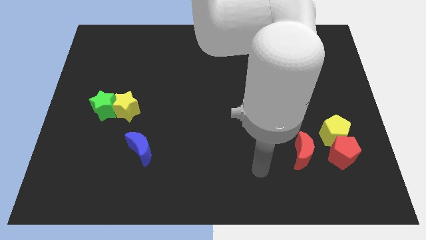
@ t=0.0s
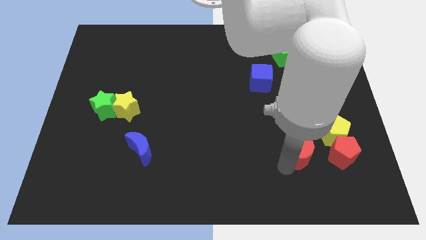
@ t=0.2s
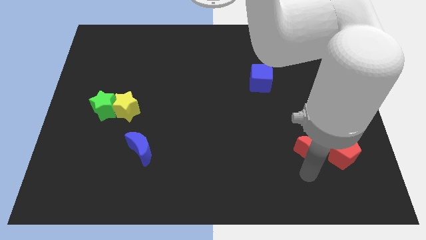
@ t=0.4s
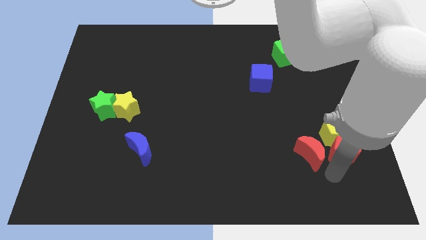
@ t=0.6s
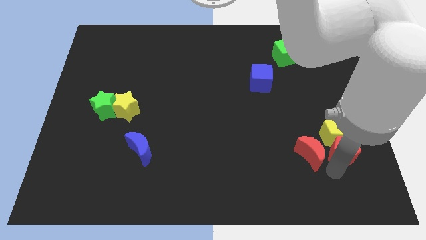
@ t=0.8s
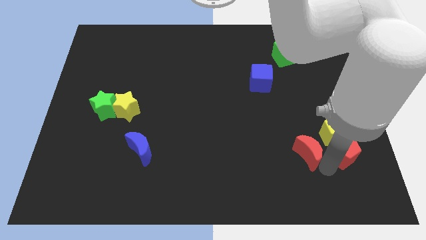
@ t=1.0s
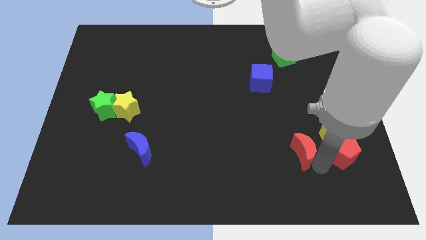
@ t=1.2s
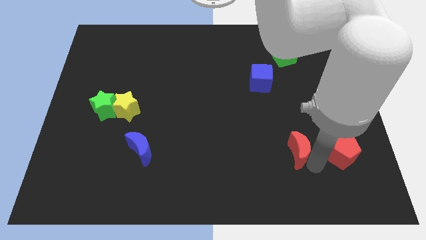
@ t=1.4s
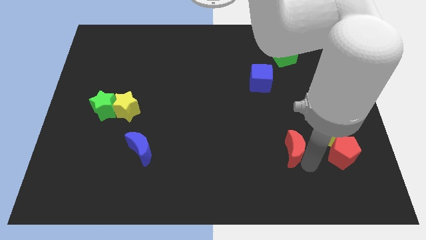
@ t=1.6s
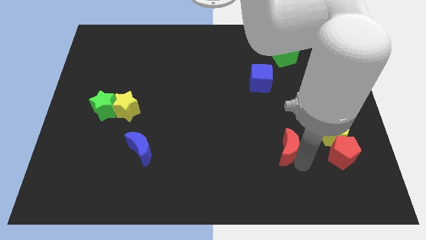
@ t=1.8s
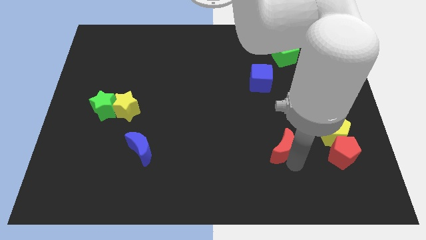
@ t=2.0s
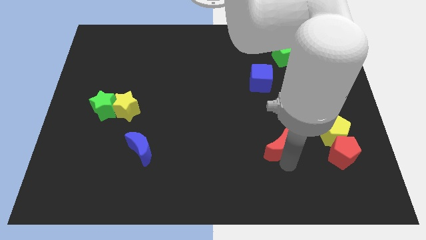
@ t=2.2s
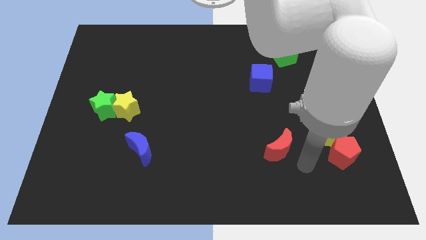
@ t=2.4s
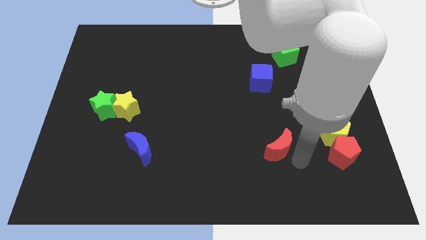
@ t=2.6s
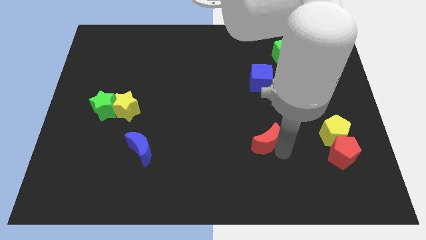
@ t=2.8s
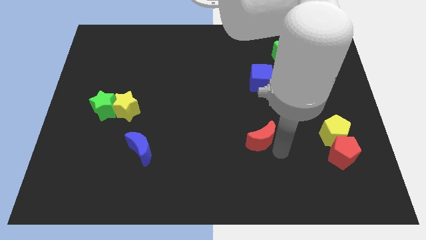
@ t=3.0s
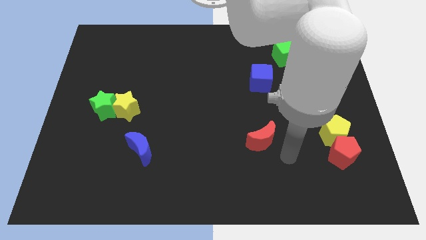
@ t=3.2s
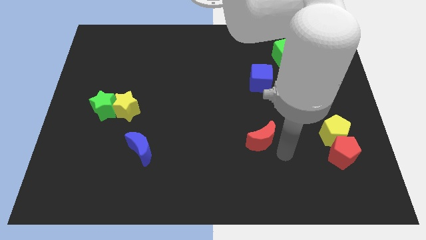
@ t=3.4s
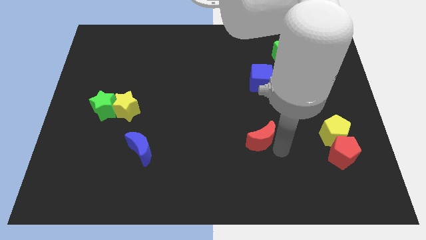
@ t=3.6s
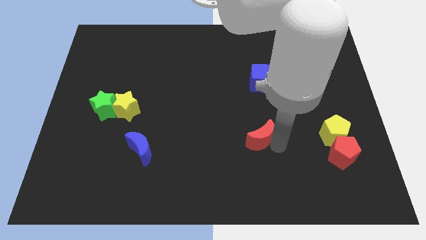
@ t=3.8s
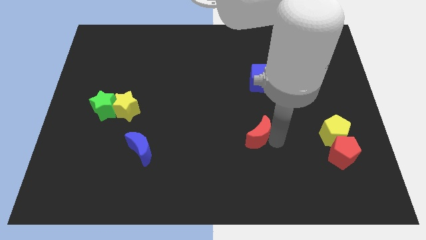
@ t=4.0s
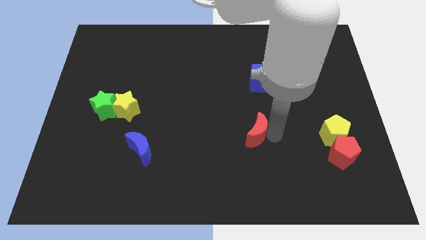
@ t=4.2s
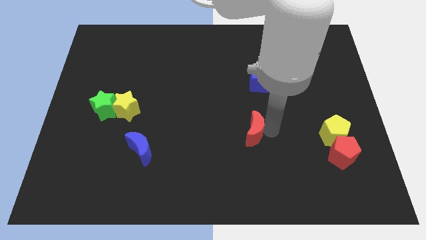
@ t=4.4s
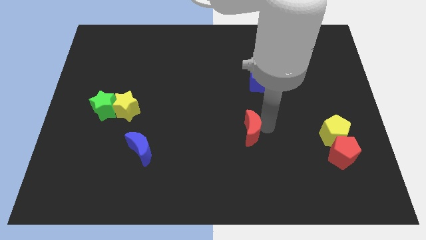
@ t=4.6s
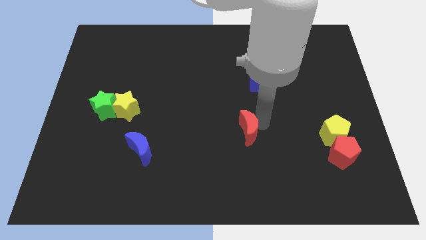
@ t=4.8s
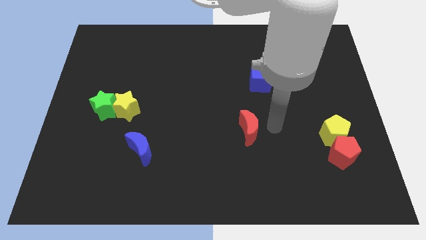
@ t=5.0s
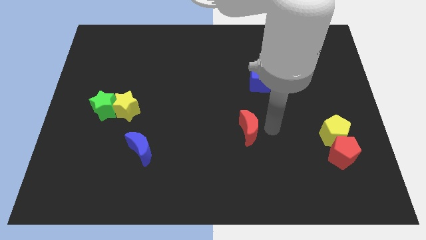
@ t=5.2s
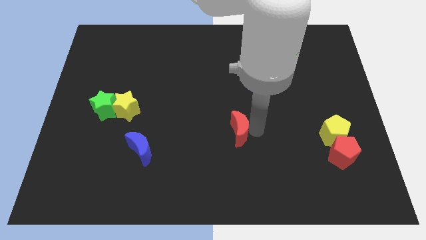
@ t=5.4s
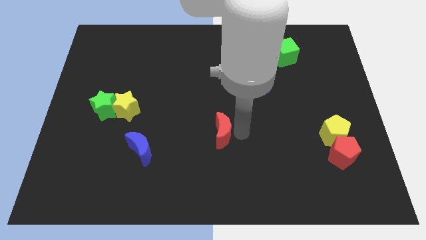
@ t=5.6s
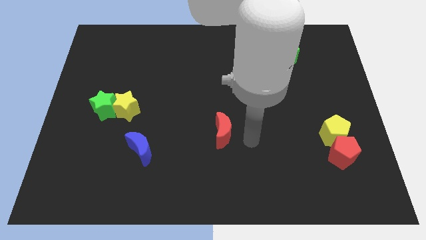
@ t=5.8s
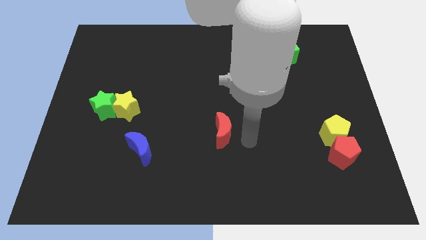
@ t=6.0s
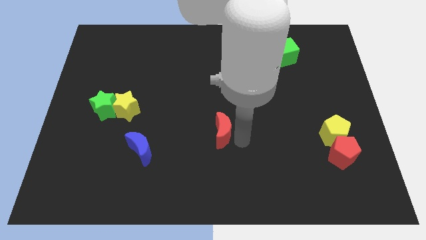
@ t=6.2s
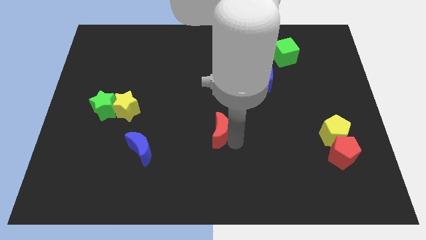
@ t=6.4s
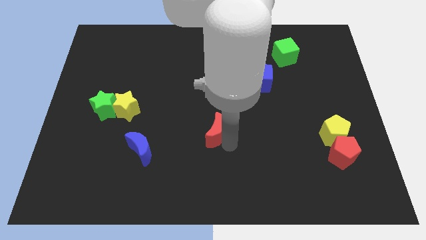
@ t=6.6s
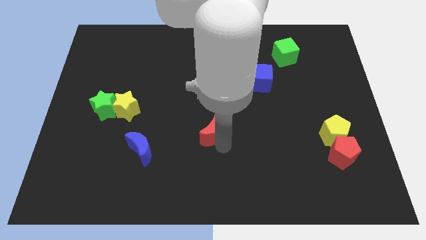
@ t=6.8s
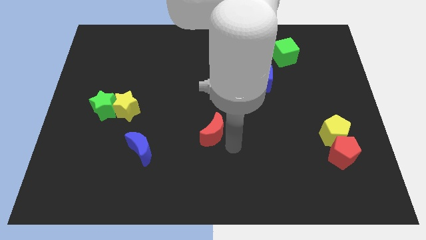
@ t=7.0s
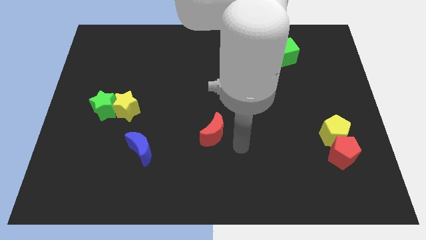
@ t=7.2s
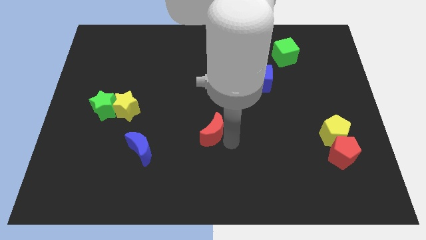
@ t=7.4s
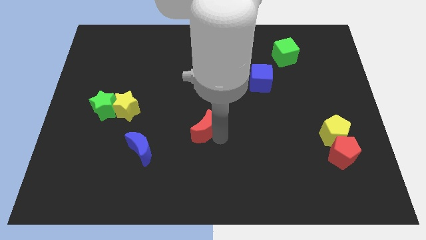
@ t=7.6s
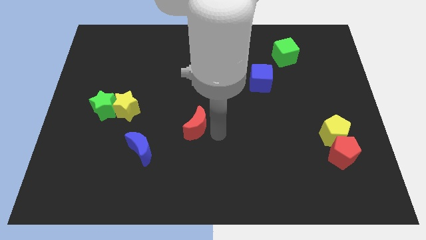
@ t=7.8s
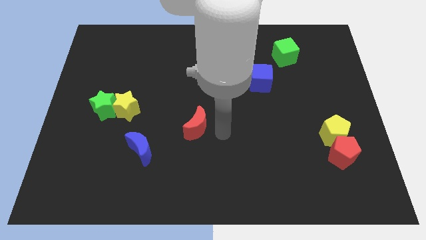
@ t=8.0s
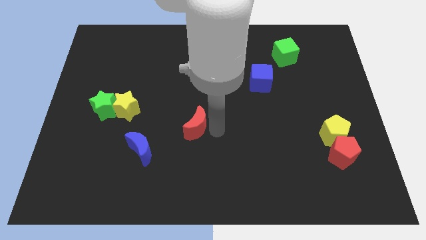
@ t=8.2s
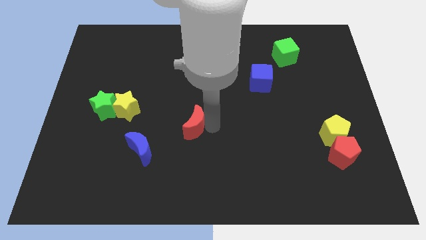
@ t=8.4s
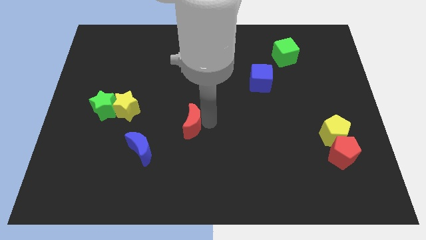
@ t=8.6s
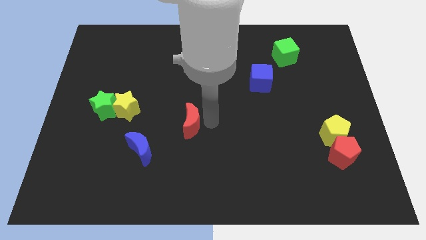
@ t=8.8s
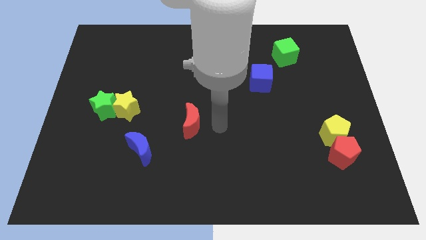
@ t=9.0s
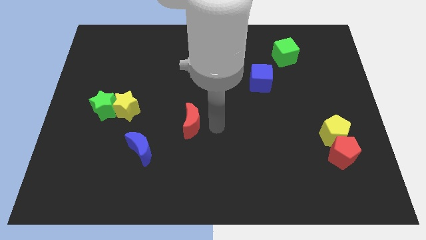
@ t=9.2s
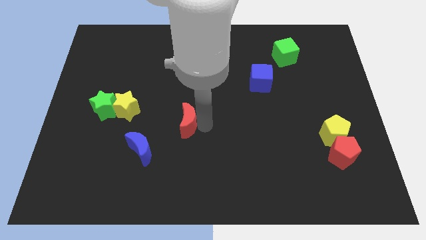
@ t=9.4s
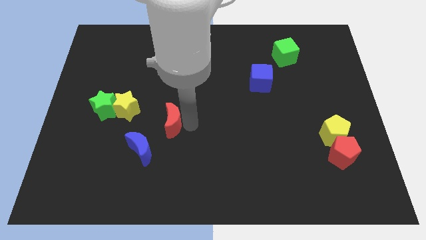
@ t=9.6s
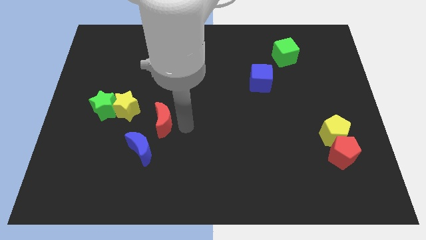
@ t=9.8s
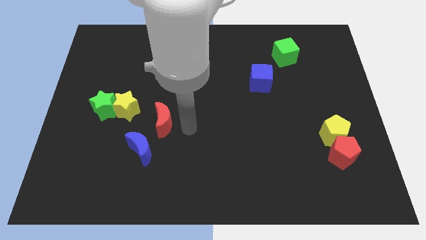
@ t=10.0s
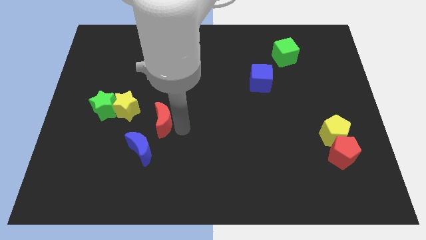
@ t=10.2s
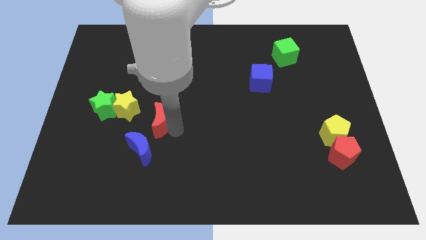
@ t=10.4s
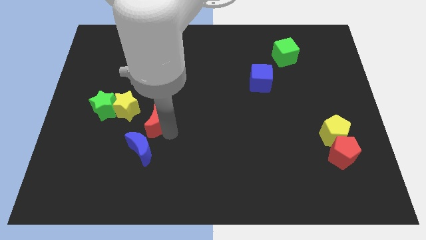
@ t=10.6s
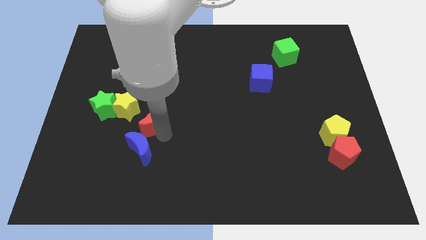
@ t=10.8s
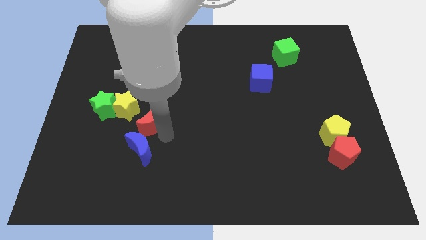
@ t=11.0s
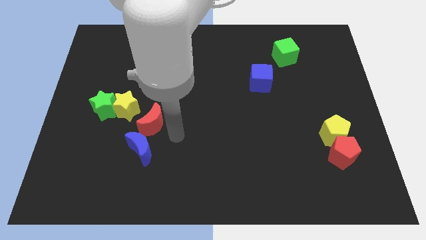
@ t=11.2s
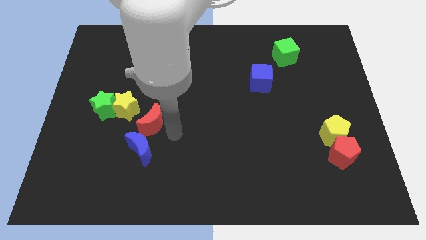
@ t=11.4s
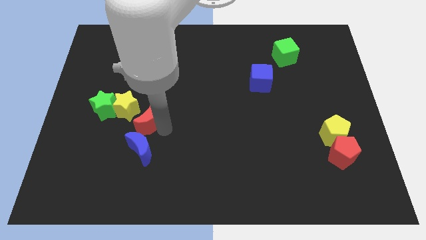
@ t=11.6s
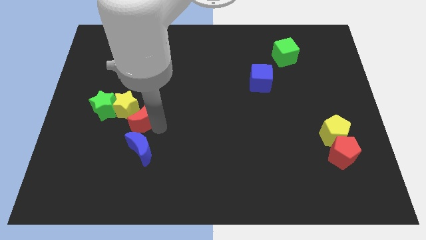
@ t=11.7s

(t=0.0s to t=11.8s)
slide the red moon to the yellow star

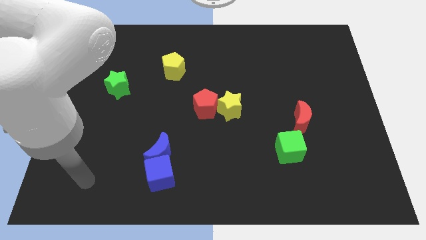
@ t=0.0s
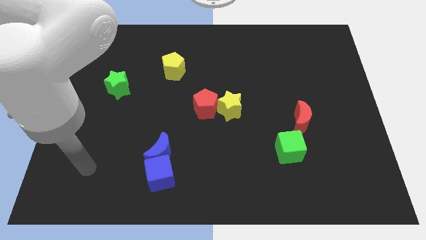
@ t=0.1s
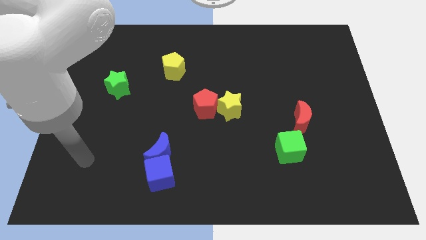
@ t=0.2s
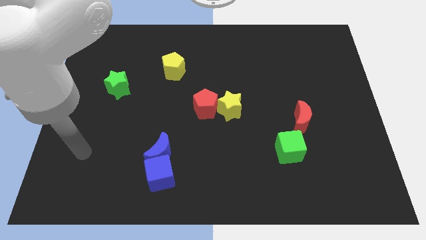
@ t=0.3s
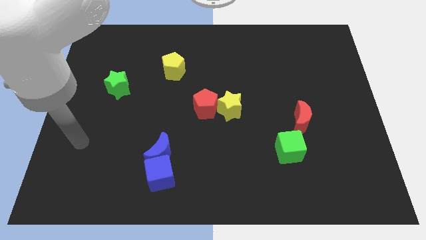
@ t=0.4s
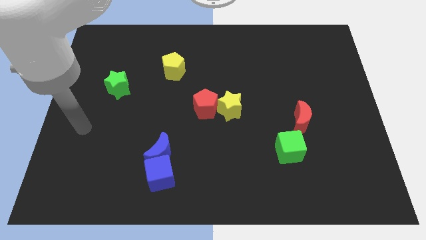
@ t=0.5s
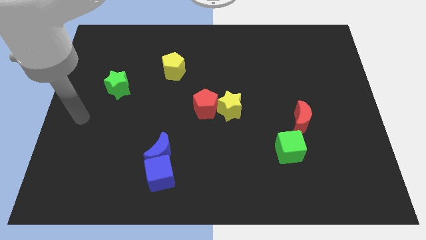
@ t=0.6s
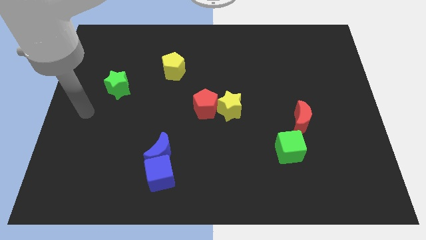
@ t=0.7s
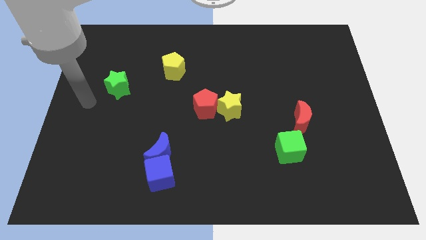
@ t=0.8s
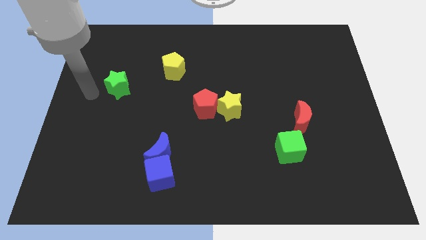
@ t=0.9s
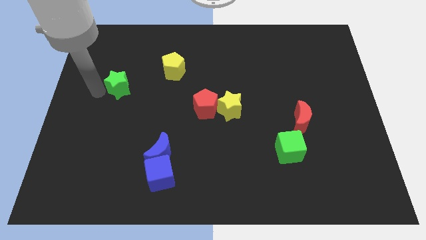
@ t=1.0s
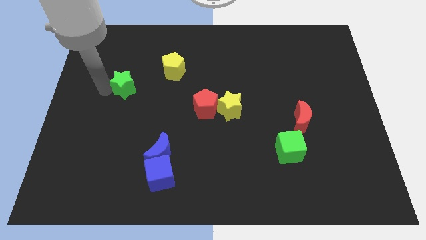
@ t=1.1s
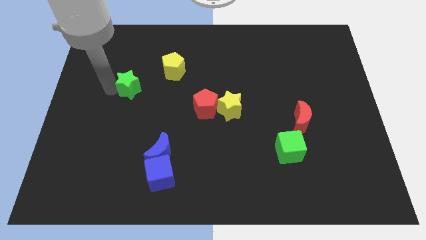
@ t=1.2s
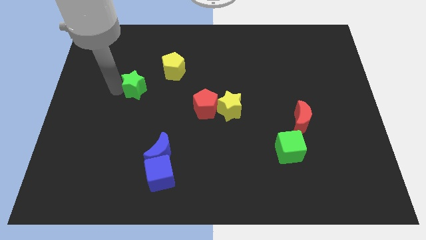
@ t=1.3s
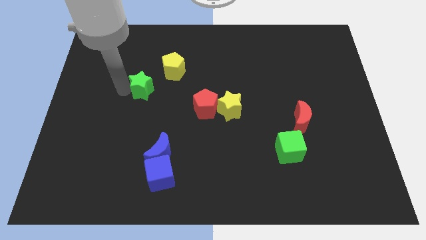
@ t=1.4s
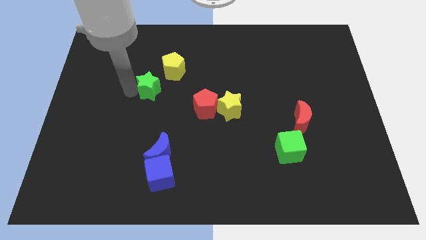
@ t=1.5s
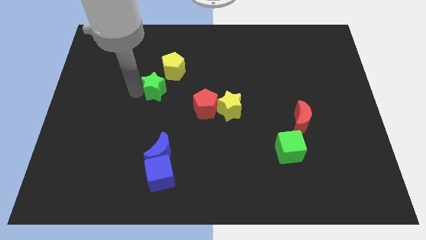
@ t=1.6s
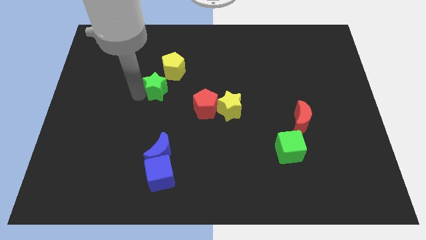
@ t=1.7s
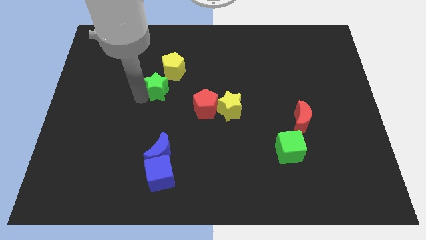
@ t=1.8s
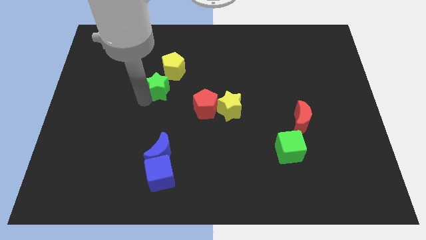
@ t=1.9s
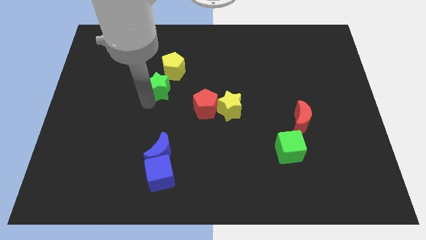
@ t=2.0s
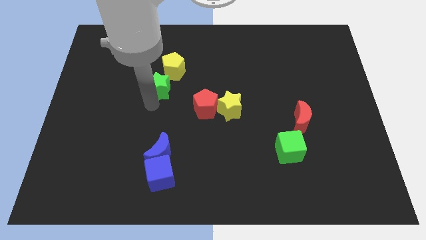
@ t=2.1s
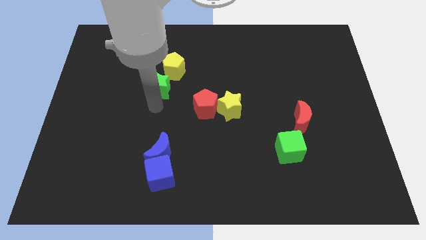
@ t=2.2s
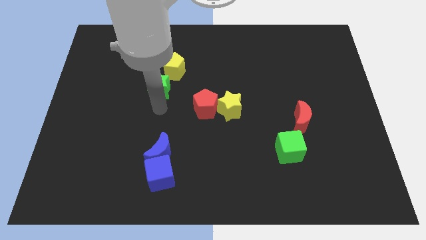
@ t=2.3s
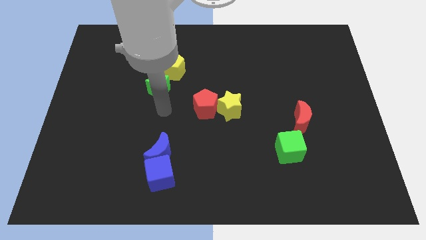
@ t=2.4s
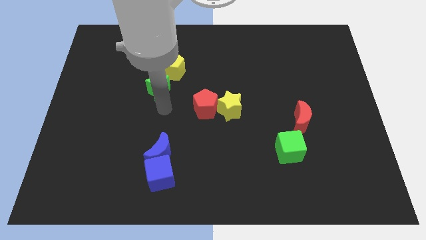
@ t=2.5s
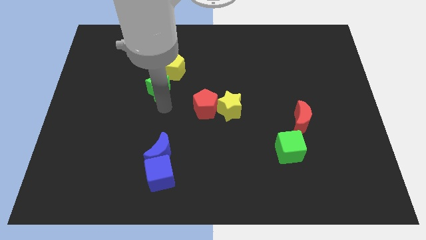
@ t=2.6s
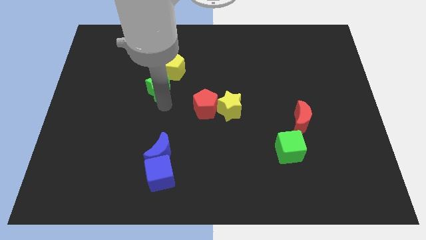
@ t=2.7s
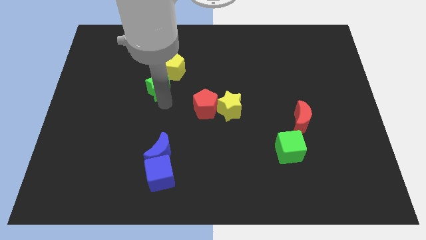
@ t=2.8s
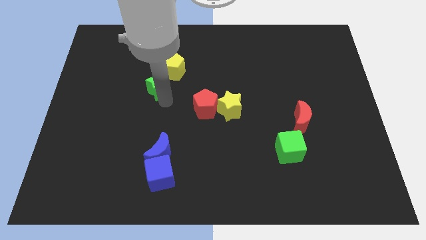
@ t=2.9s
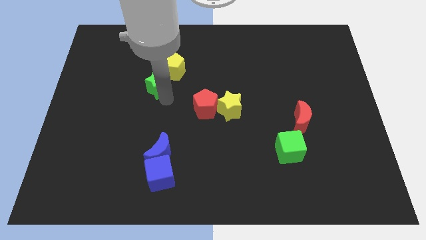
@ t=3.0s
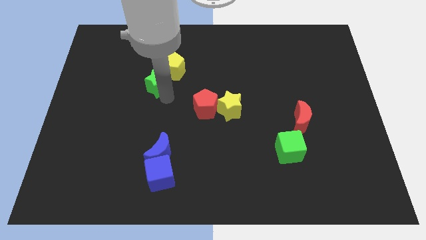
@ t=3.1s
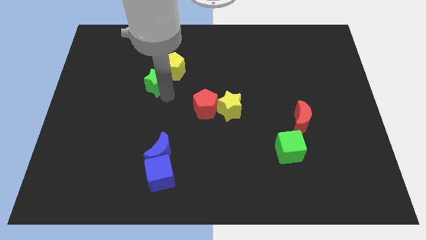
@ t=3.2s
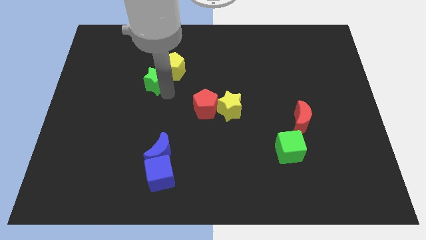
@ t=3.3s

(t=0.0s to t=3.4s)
put the green star to the yellow pentagon
